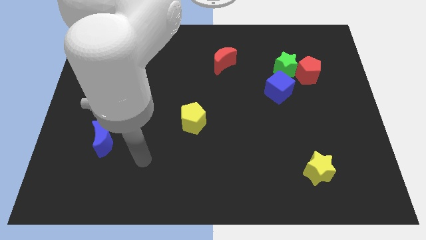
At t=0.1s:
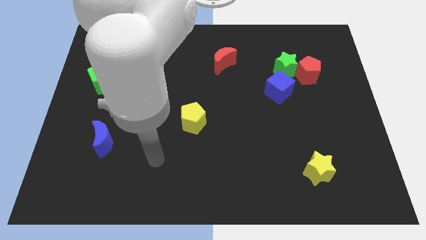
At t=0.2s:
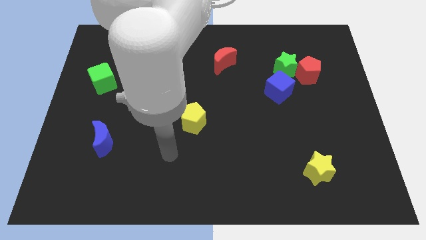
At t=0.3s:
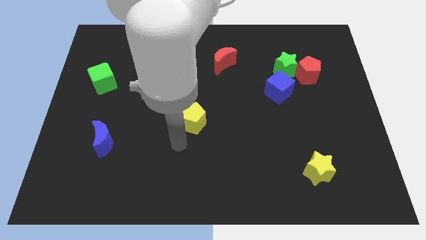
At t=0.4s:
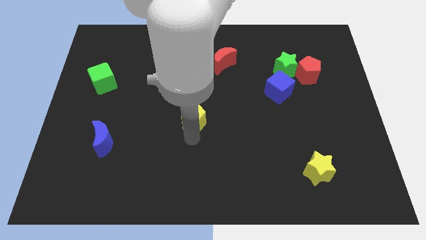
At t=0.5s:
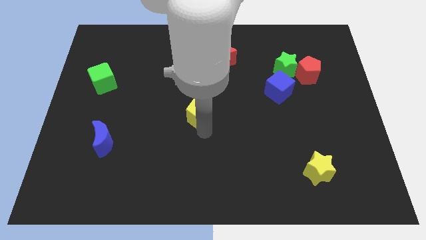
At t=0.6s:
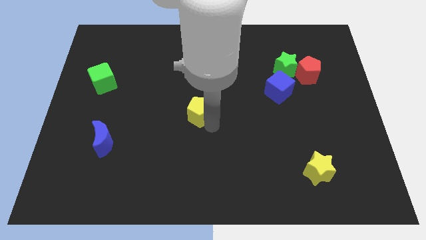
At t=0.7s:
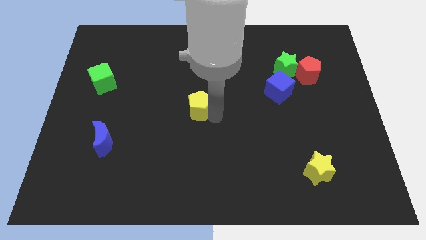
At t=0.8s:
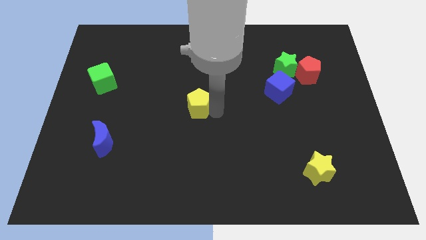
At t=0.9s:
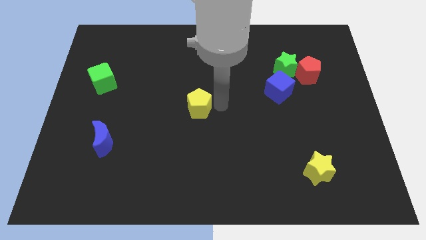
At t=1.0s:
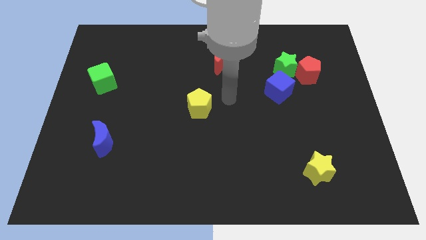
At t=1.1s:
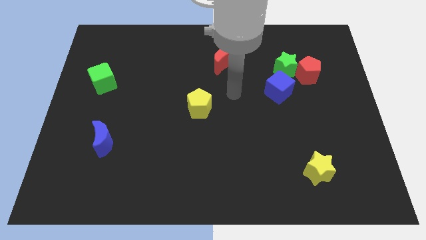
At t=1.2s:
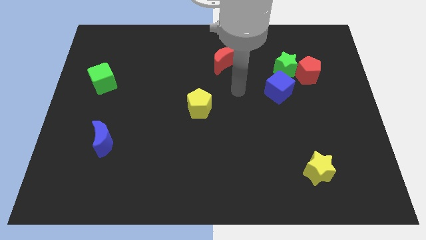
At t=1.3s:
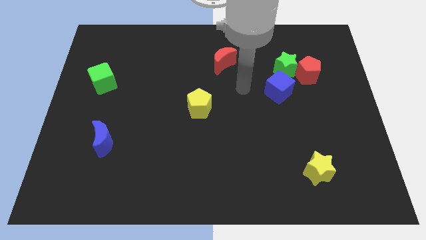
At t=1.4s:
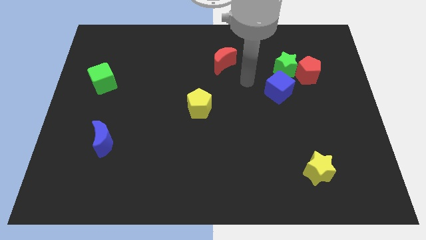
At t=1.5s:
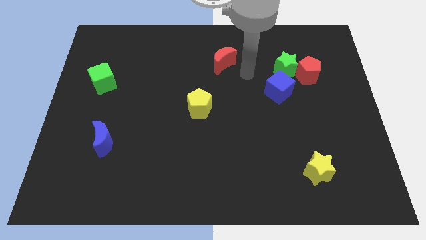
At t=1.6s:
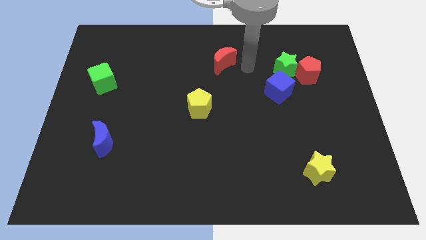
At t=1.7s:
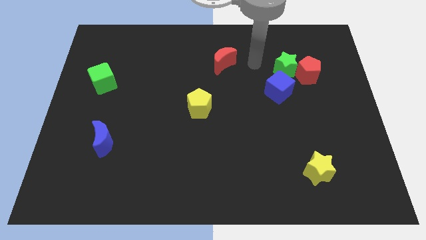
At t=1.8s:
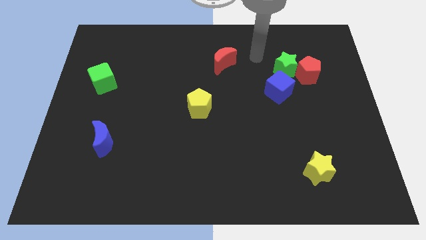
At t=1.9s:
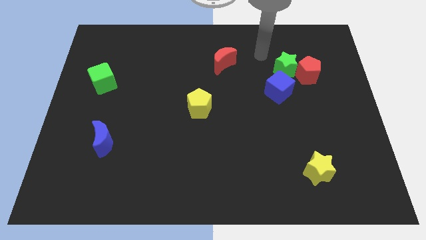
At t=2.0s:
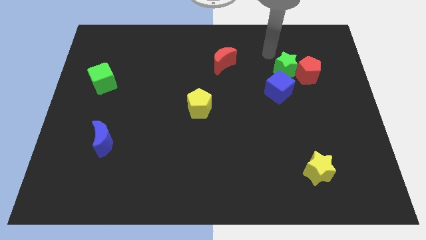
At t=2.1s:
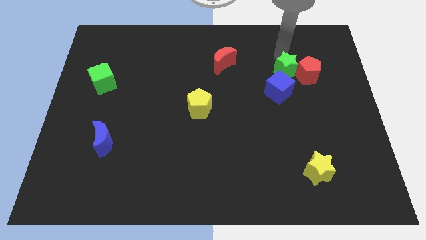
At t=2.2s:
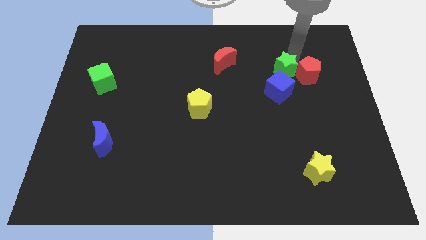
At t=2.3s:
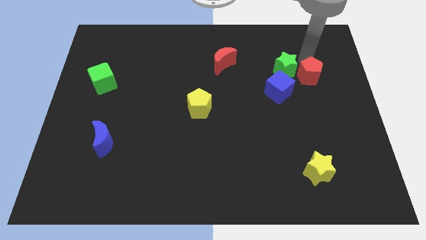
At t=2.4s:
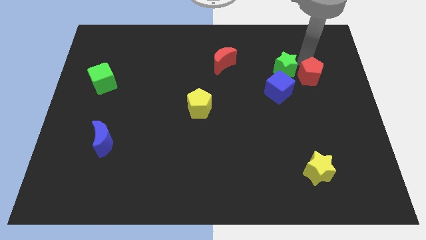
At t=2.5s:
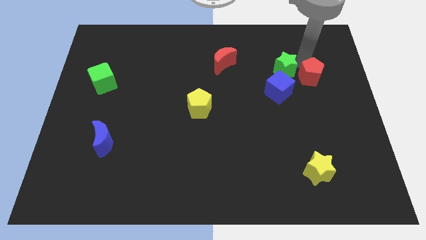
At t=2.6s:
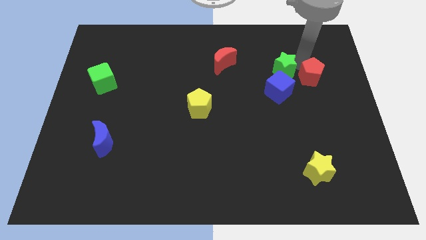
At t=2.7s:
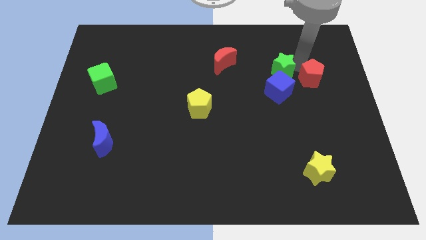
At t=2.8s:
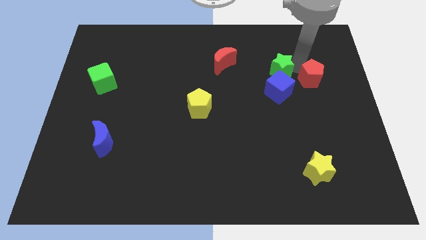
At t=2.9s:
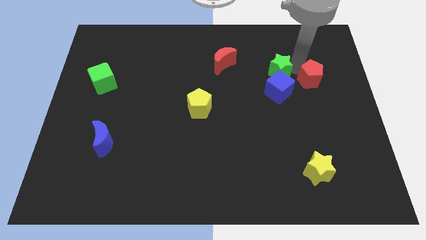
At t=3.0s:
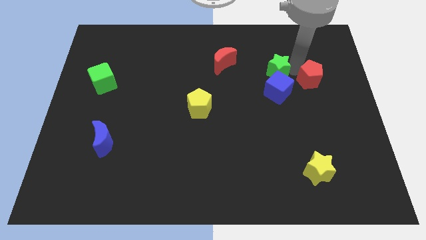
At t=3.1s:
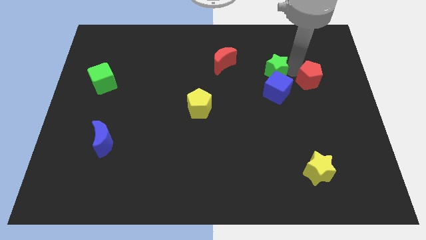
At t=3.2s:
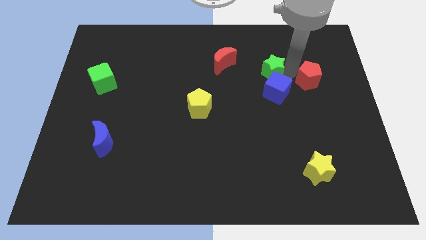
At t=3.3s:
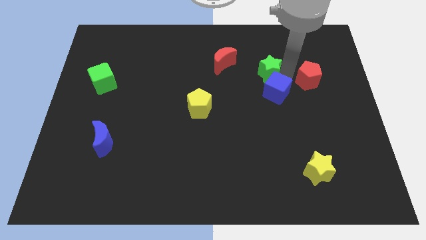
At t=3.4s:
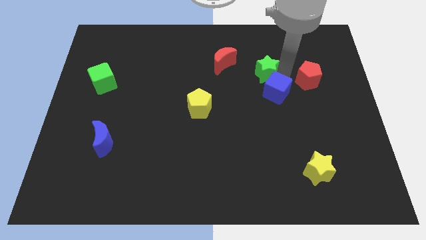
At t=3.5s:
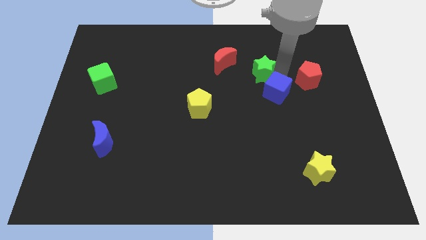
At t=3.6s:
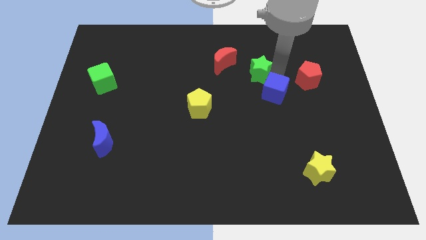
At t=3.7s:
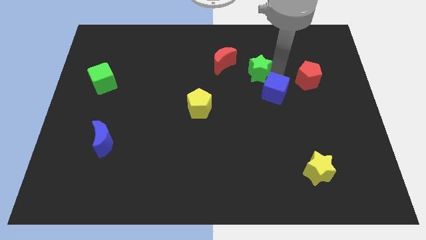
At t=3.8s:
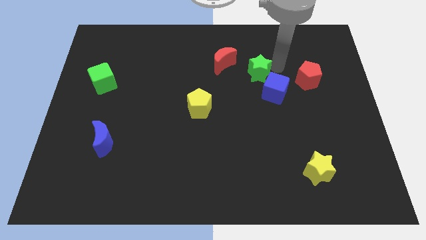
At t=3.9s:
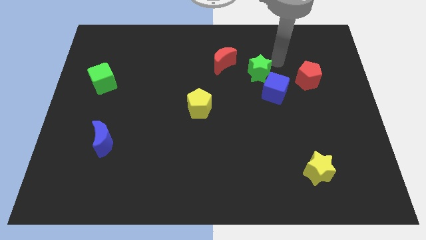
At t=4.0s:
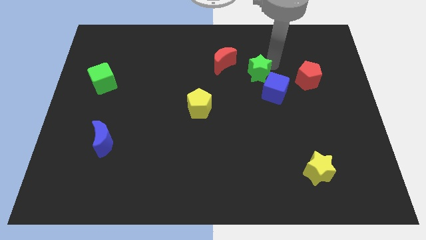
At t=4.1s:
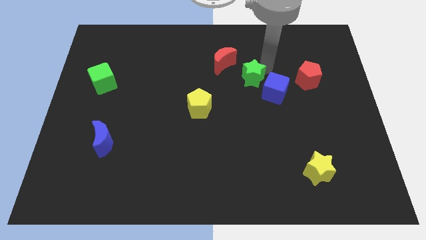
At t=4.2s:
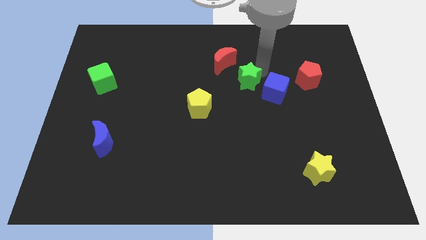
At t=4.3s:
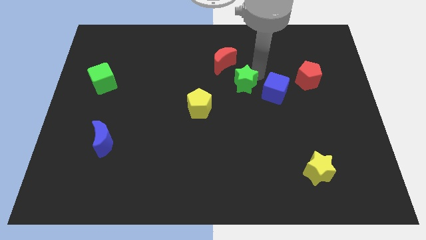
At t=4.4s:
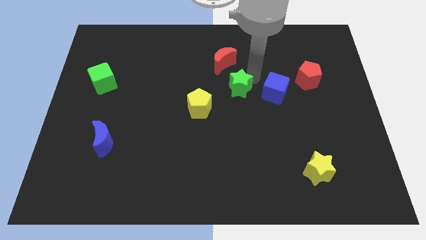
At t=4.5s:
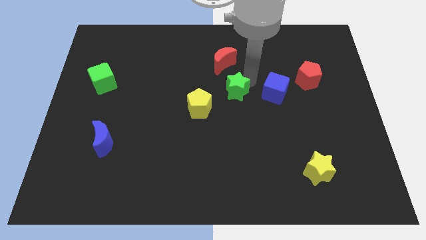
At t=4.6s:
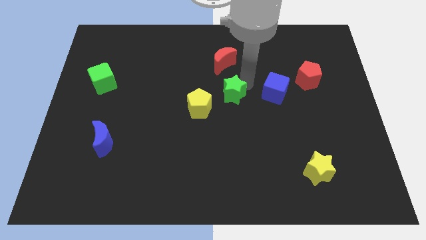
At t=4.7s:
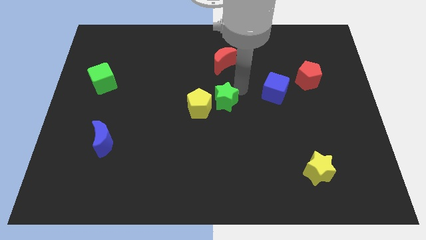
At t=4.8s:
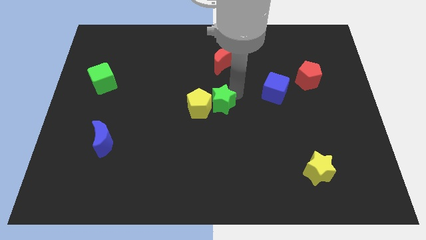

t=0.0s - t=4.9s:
put the green star next to the yellow pentagon

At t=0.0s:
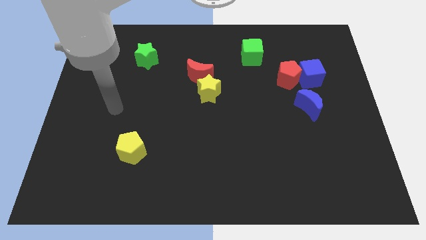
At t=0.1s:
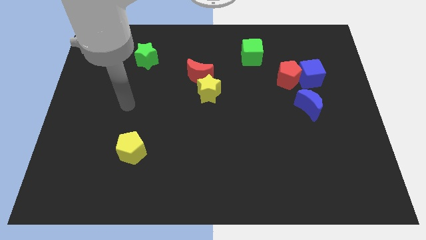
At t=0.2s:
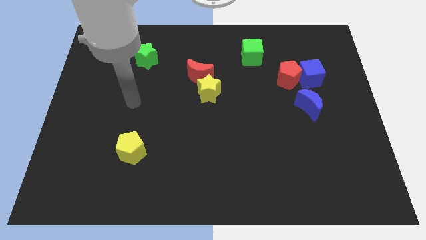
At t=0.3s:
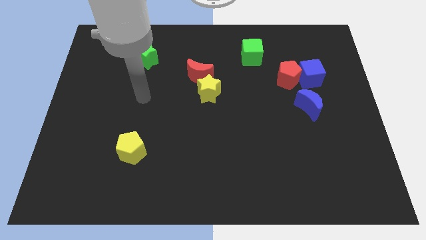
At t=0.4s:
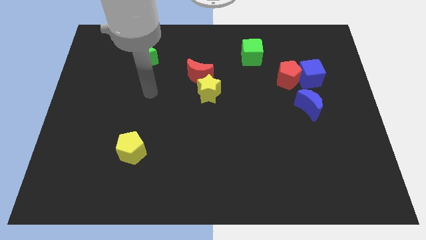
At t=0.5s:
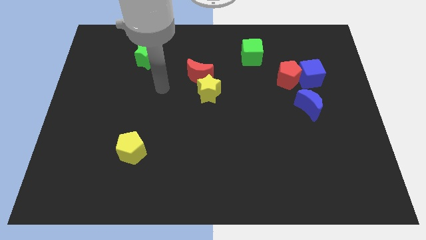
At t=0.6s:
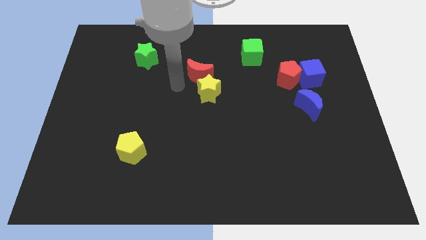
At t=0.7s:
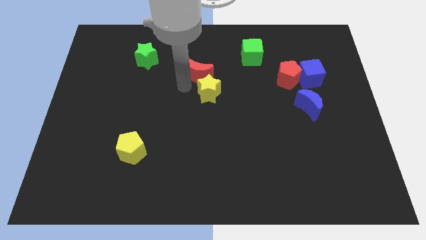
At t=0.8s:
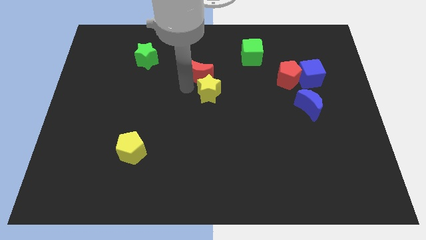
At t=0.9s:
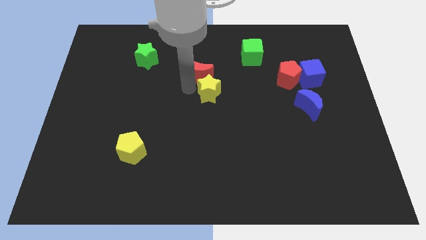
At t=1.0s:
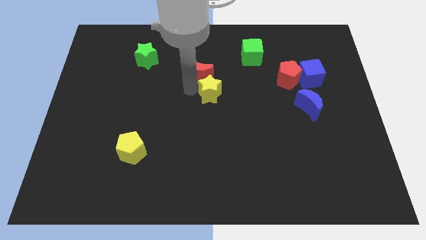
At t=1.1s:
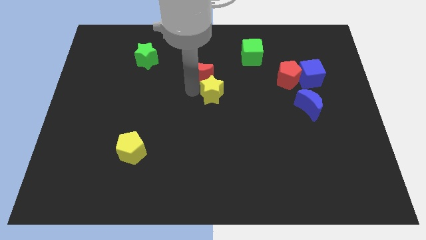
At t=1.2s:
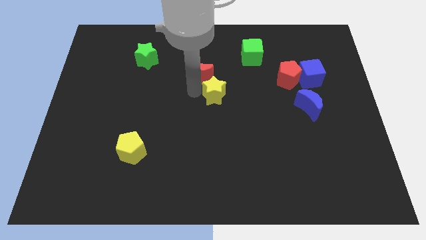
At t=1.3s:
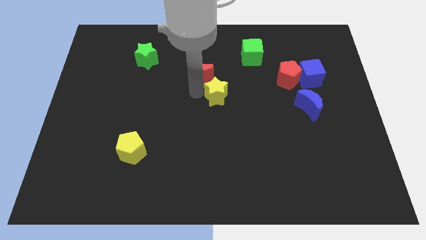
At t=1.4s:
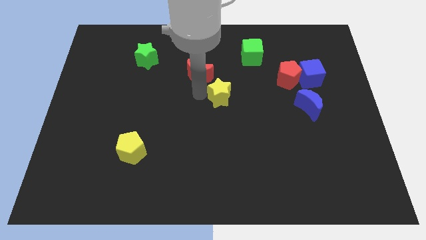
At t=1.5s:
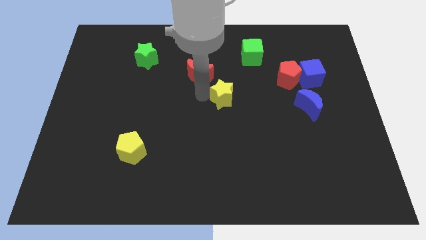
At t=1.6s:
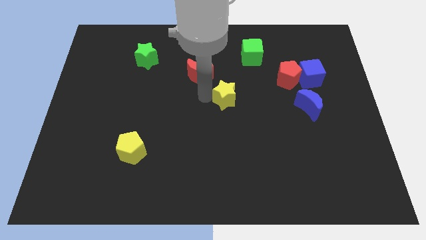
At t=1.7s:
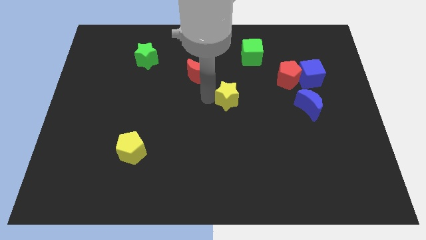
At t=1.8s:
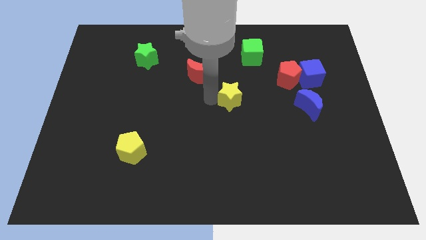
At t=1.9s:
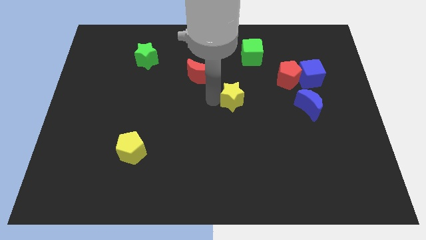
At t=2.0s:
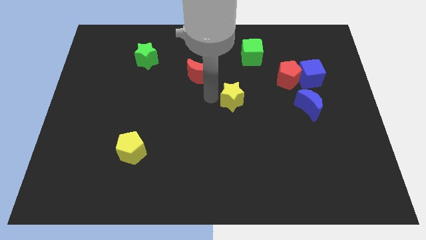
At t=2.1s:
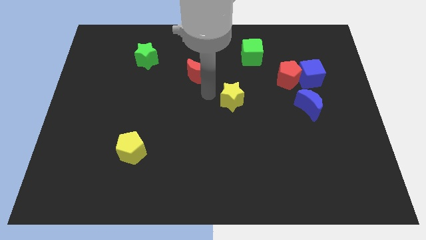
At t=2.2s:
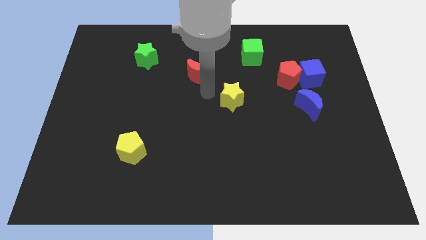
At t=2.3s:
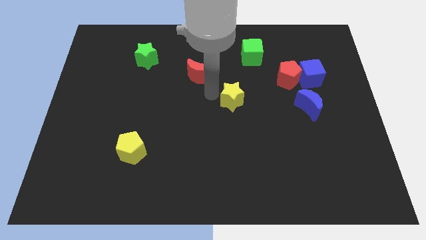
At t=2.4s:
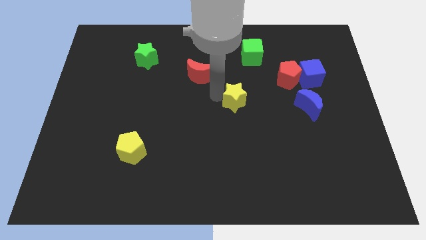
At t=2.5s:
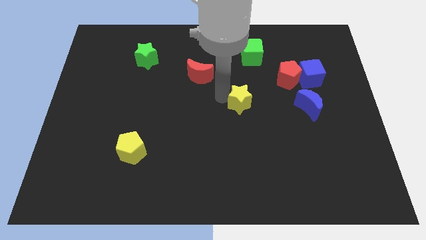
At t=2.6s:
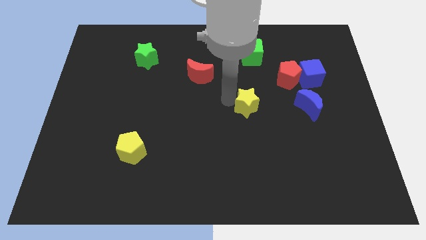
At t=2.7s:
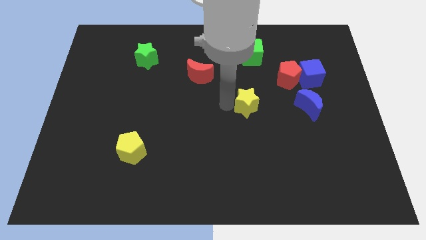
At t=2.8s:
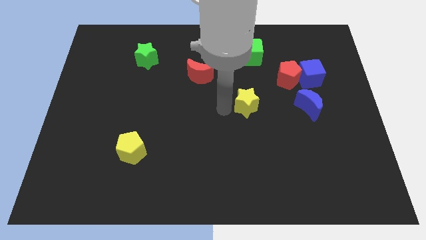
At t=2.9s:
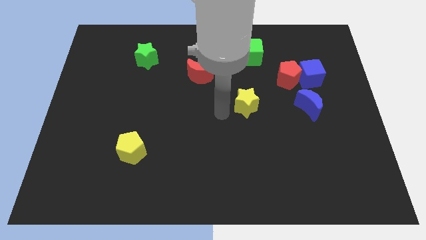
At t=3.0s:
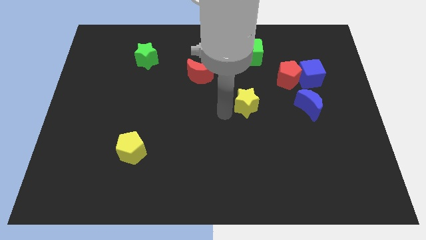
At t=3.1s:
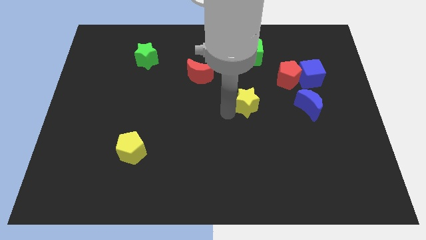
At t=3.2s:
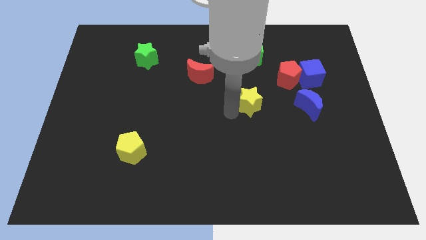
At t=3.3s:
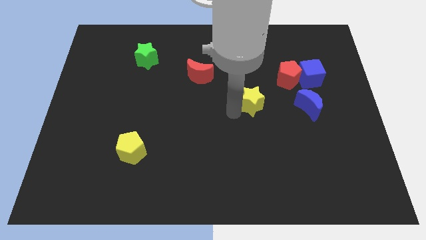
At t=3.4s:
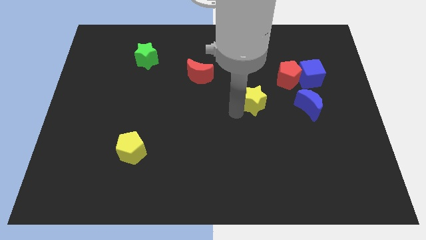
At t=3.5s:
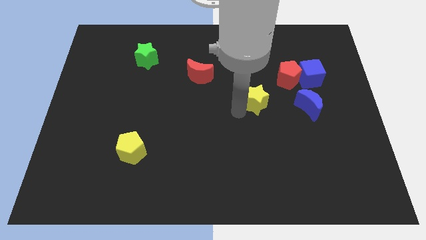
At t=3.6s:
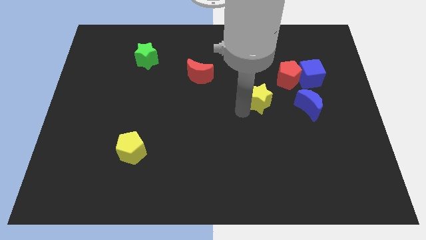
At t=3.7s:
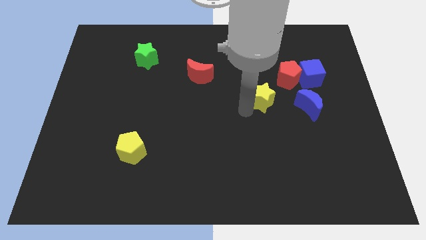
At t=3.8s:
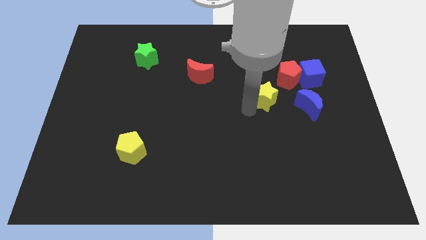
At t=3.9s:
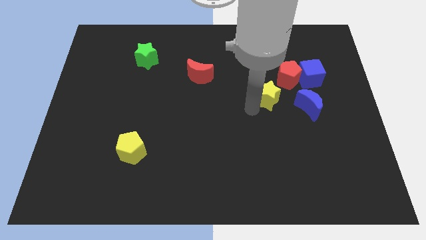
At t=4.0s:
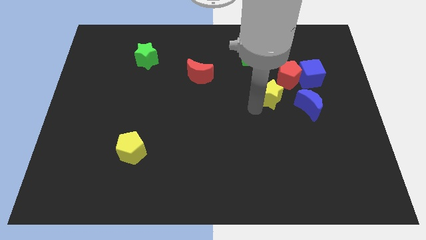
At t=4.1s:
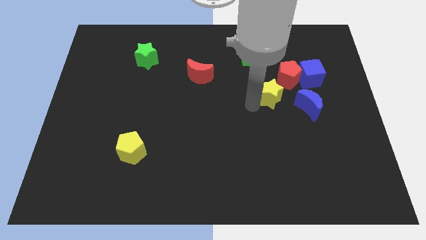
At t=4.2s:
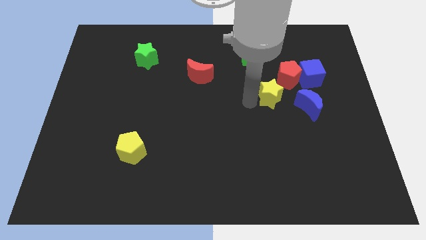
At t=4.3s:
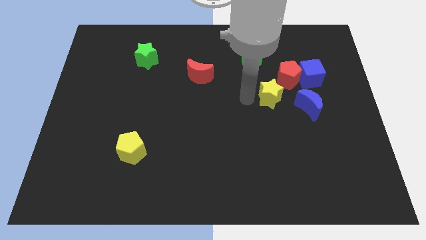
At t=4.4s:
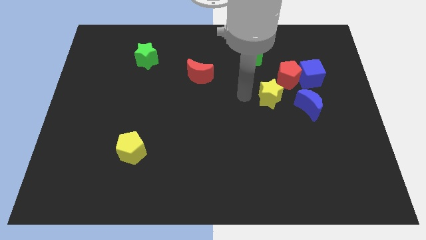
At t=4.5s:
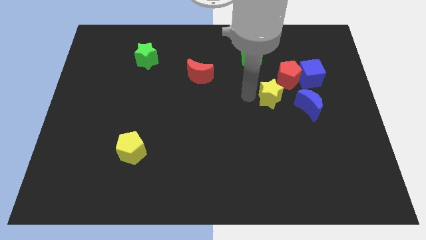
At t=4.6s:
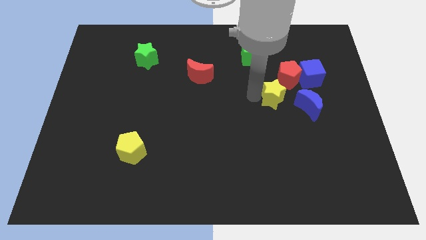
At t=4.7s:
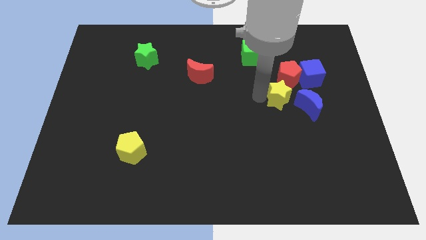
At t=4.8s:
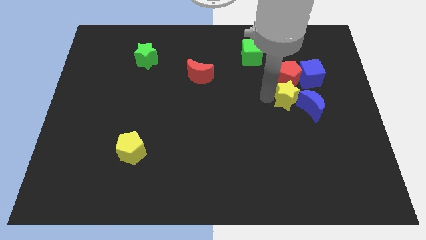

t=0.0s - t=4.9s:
push the yellow star close to the blue moon
